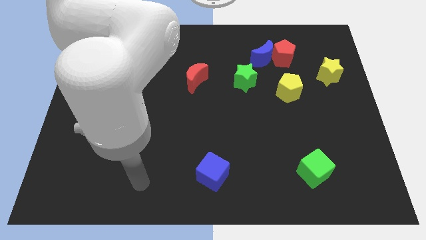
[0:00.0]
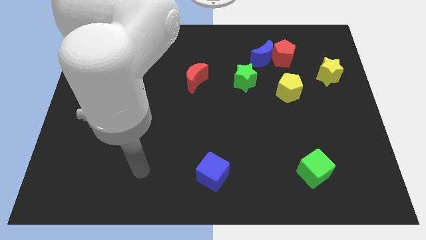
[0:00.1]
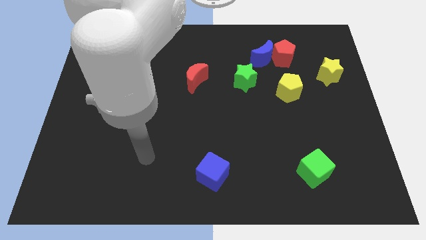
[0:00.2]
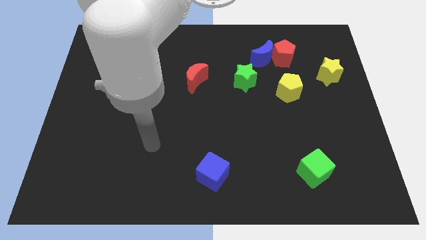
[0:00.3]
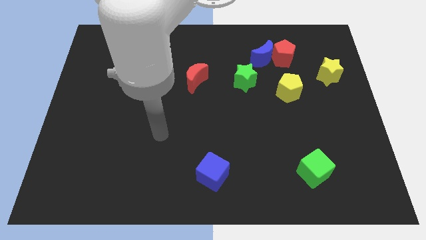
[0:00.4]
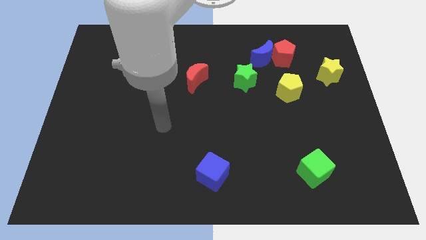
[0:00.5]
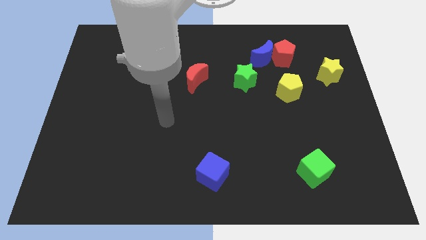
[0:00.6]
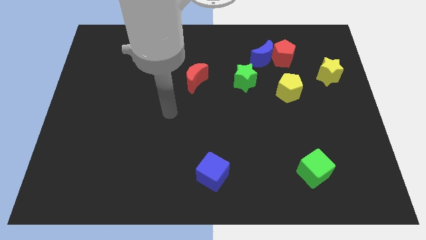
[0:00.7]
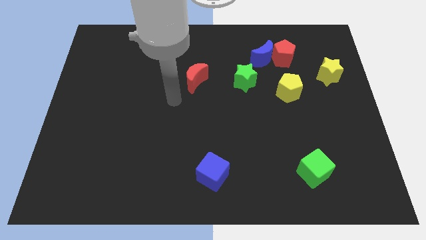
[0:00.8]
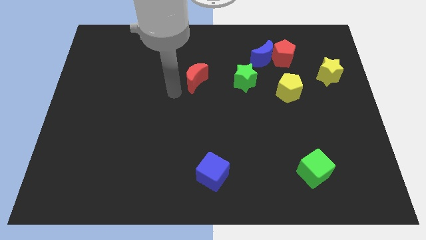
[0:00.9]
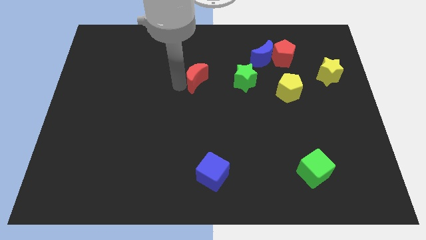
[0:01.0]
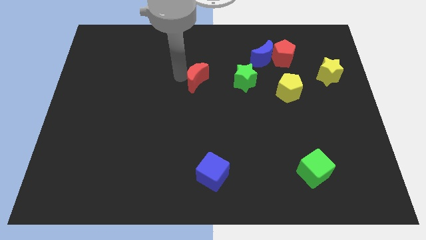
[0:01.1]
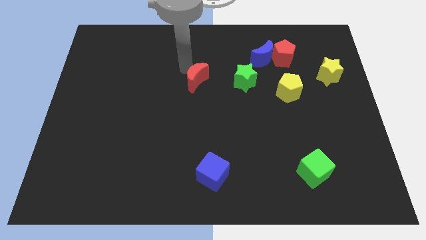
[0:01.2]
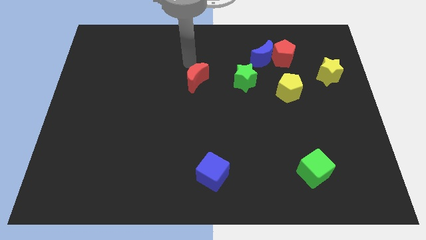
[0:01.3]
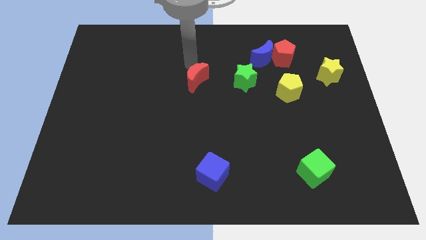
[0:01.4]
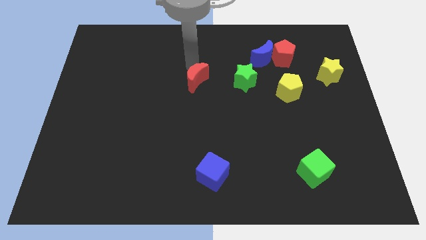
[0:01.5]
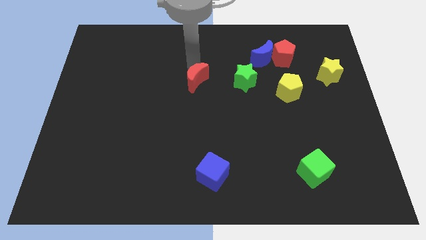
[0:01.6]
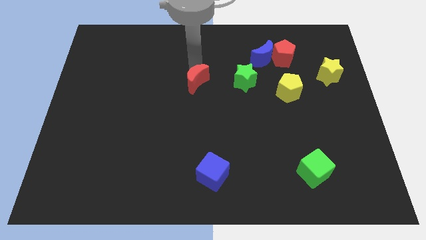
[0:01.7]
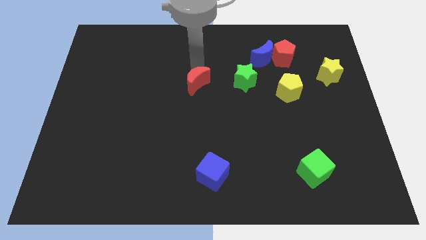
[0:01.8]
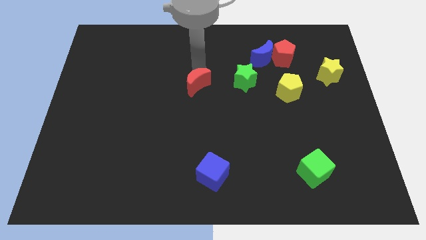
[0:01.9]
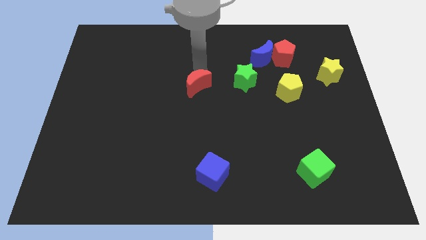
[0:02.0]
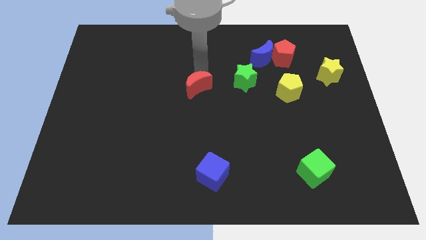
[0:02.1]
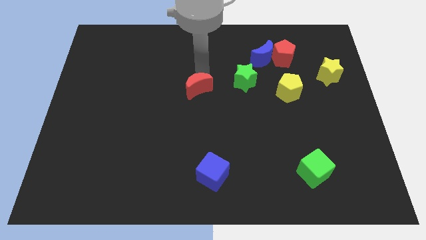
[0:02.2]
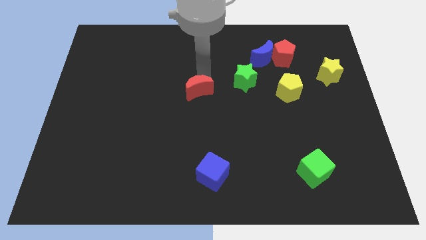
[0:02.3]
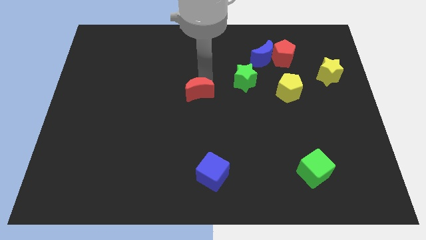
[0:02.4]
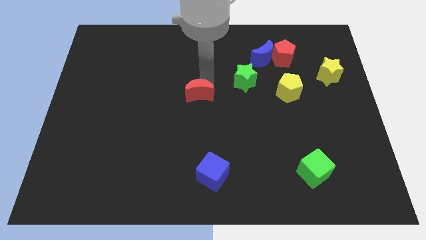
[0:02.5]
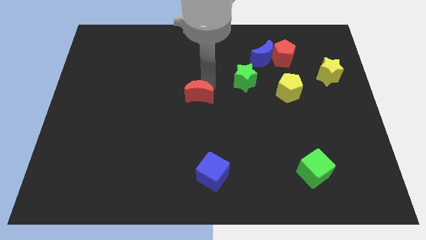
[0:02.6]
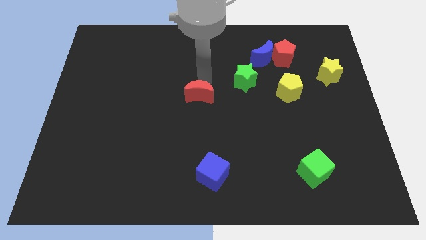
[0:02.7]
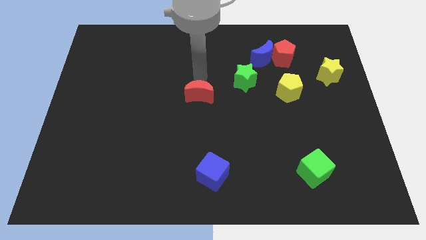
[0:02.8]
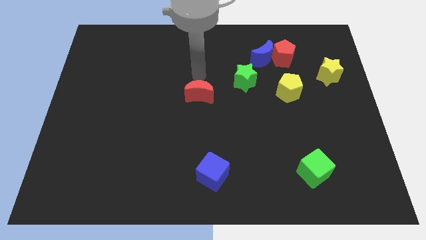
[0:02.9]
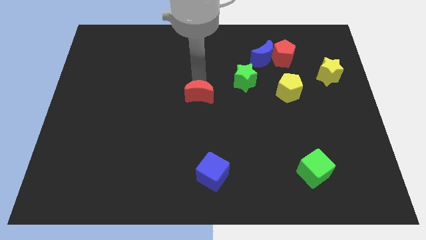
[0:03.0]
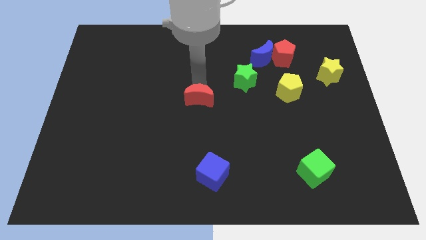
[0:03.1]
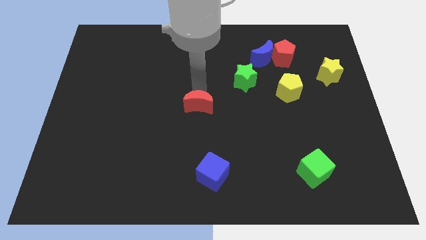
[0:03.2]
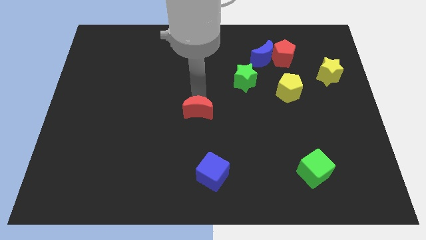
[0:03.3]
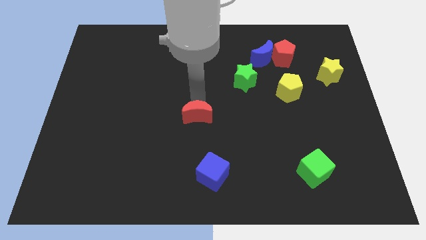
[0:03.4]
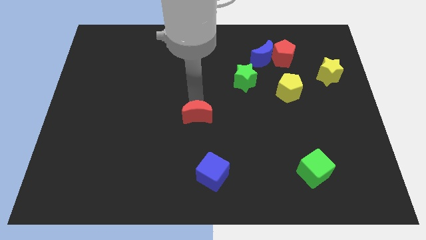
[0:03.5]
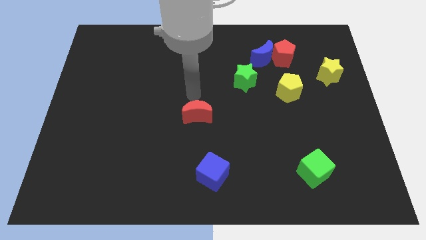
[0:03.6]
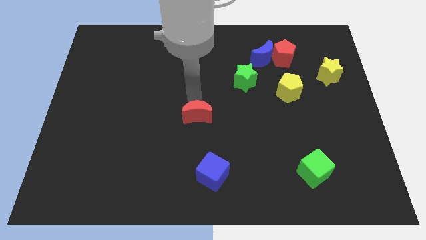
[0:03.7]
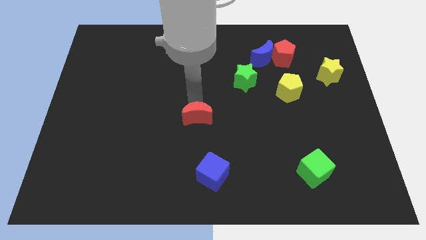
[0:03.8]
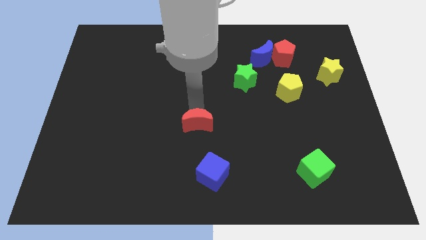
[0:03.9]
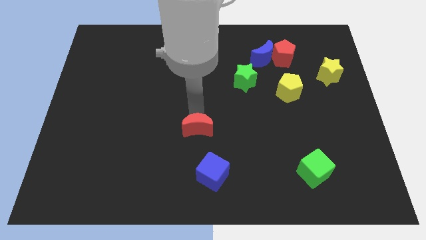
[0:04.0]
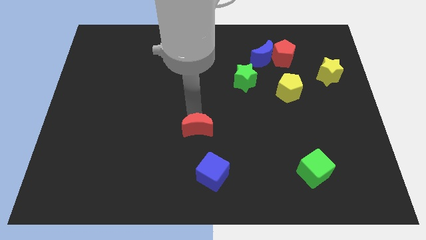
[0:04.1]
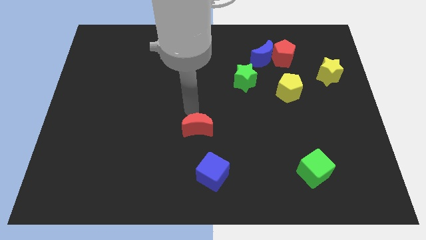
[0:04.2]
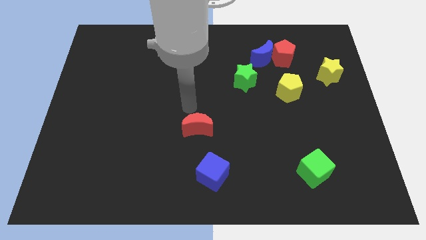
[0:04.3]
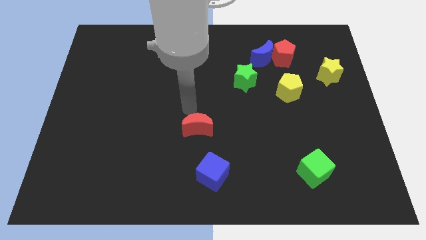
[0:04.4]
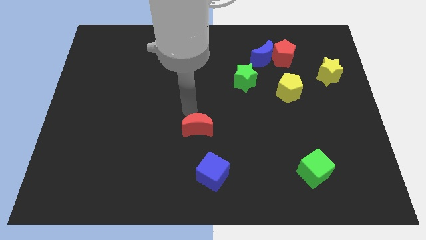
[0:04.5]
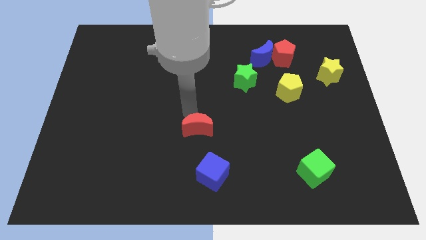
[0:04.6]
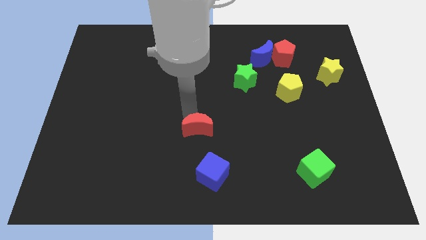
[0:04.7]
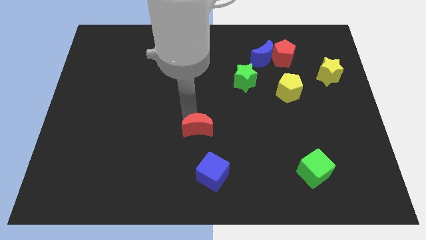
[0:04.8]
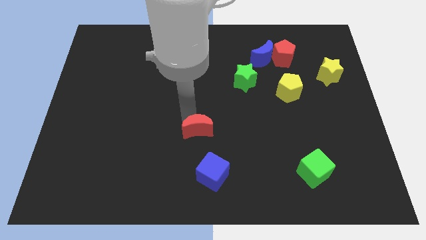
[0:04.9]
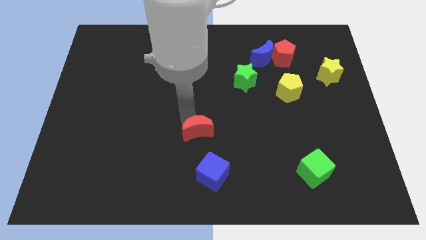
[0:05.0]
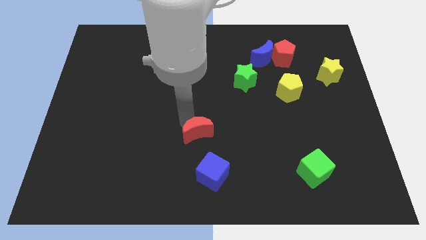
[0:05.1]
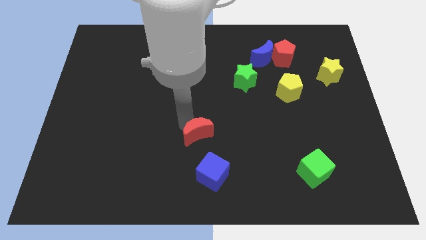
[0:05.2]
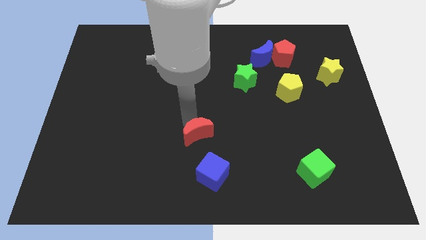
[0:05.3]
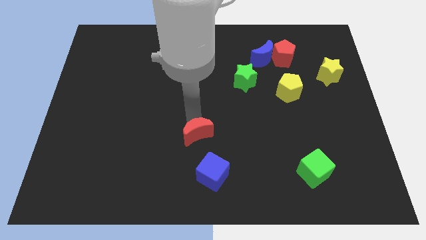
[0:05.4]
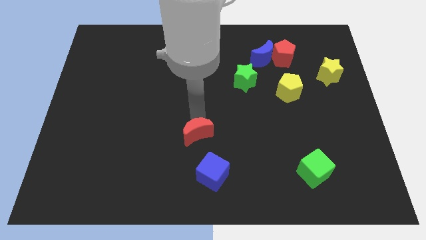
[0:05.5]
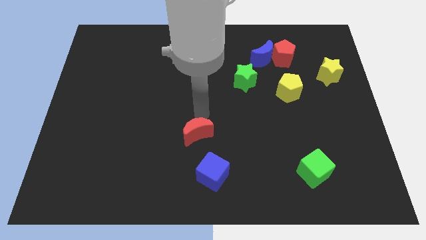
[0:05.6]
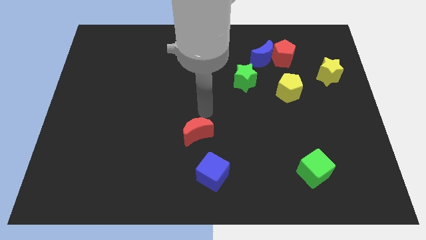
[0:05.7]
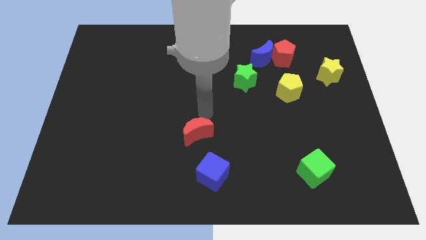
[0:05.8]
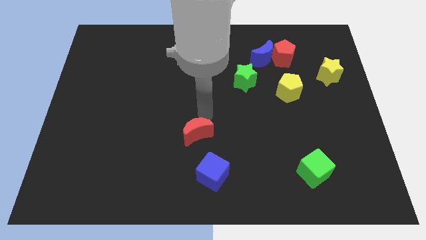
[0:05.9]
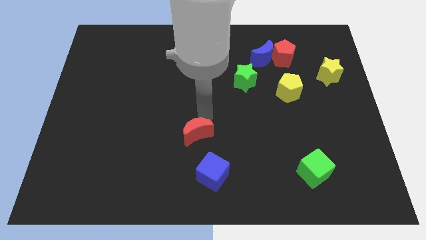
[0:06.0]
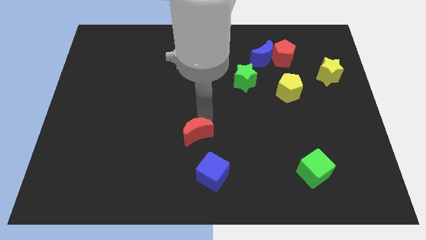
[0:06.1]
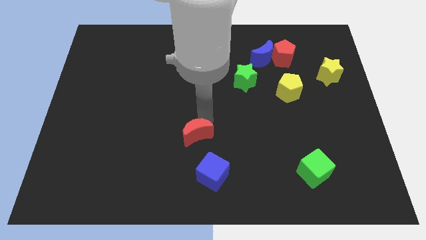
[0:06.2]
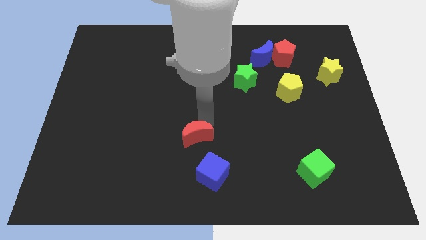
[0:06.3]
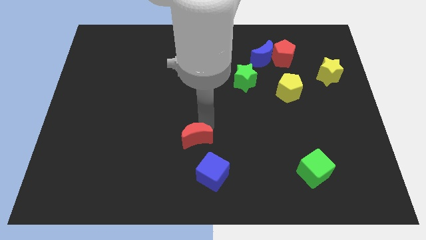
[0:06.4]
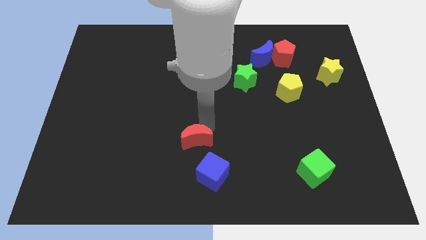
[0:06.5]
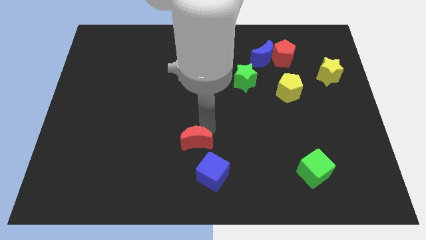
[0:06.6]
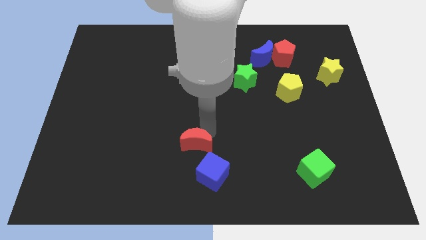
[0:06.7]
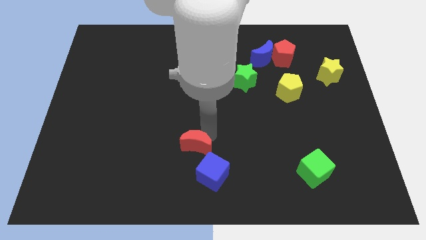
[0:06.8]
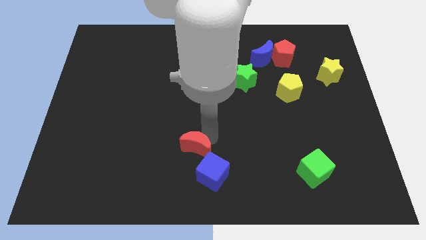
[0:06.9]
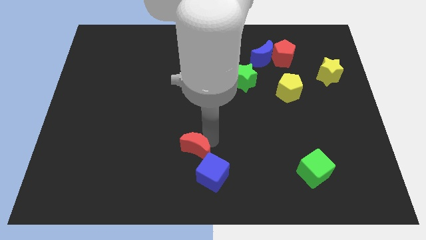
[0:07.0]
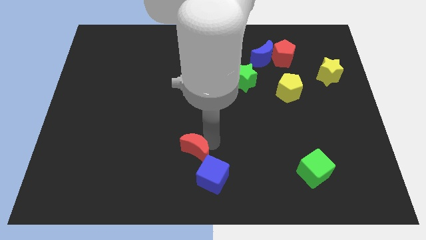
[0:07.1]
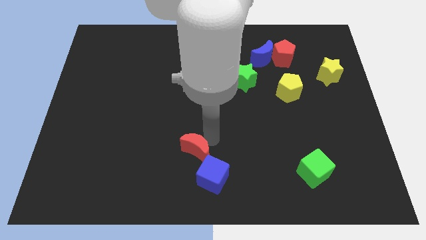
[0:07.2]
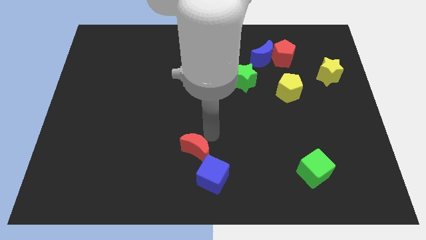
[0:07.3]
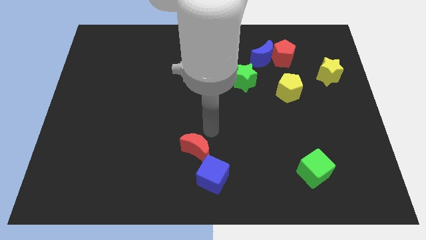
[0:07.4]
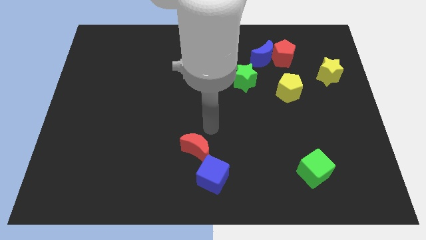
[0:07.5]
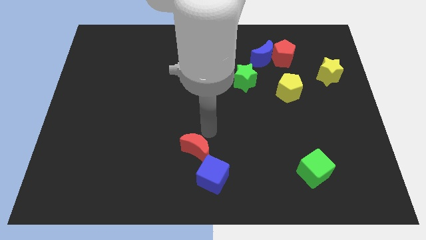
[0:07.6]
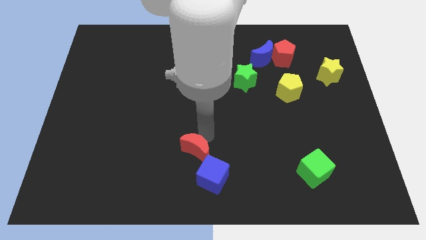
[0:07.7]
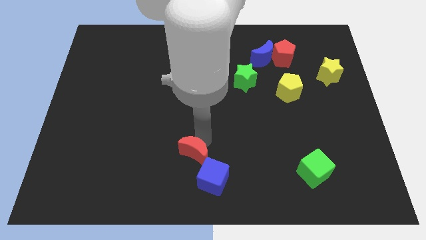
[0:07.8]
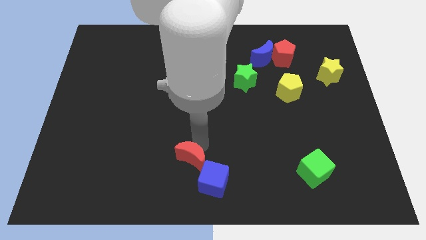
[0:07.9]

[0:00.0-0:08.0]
move the red moon to the bottom
